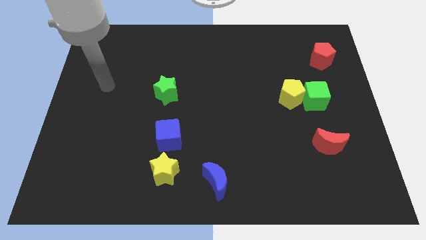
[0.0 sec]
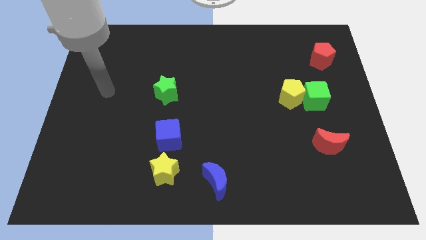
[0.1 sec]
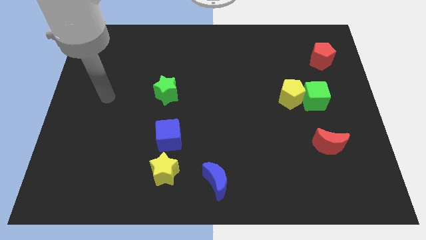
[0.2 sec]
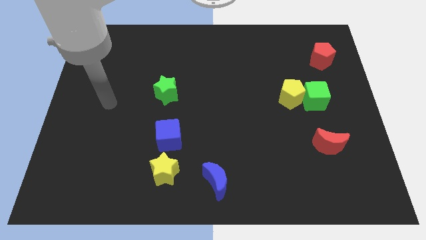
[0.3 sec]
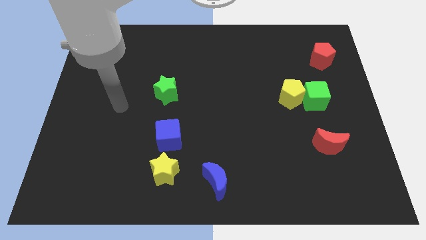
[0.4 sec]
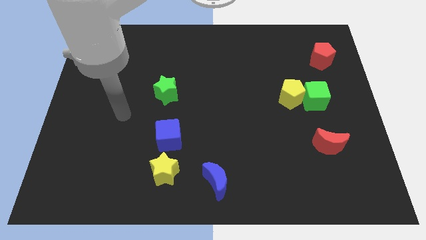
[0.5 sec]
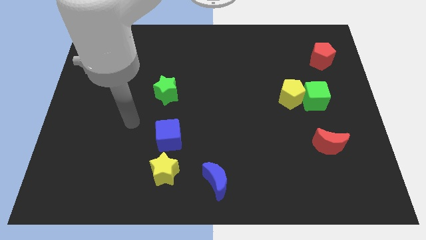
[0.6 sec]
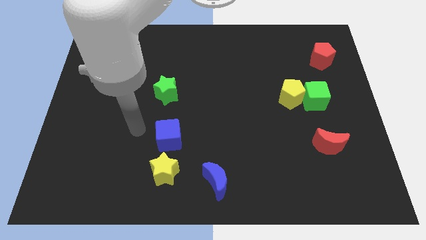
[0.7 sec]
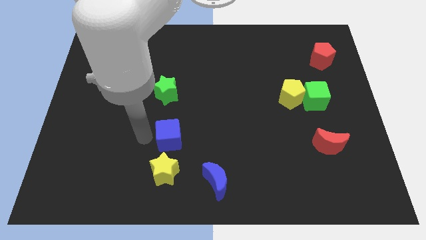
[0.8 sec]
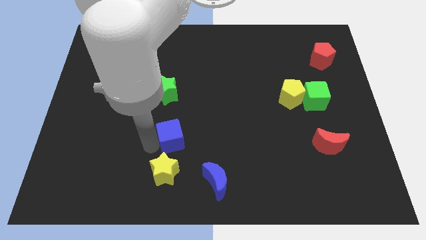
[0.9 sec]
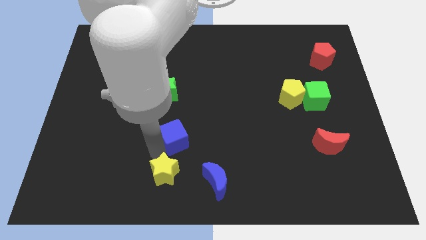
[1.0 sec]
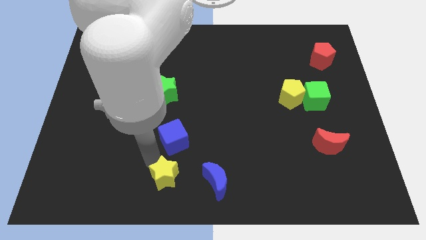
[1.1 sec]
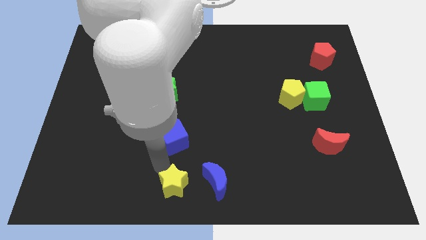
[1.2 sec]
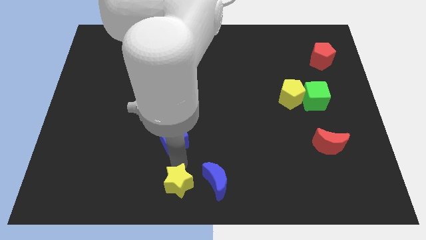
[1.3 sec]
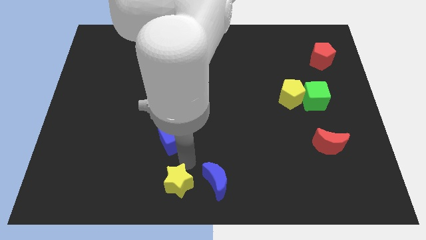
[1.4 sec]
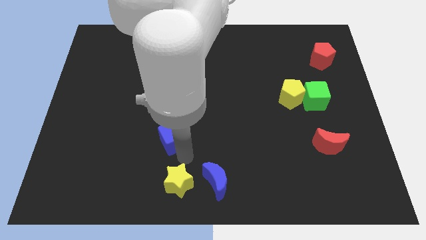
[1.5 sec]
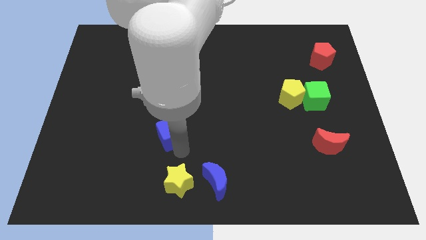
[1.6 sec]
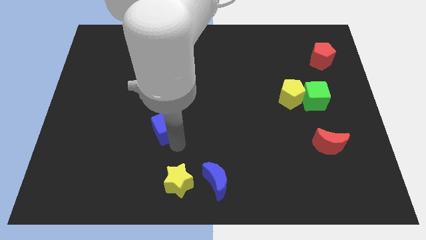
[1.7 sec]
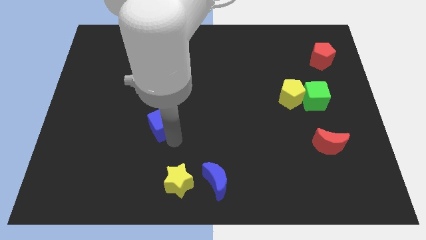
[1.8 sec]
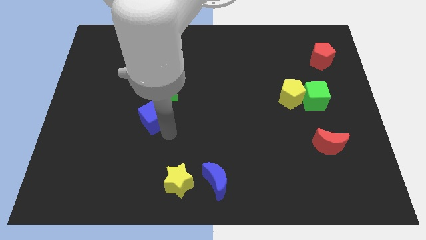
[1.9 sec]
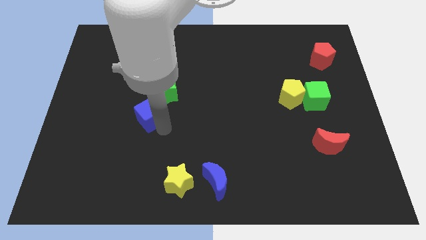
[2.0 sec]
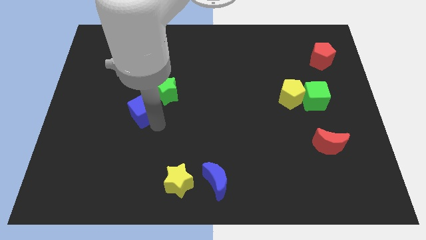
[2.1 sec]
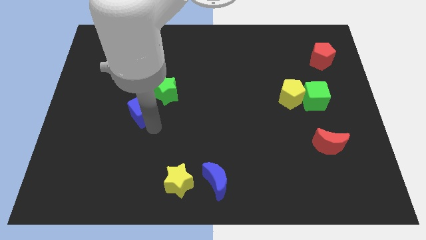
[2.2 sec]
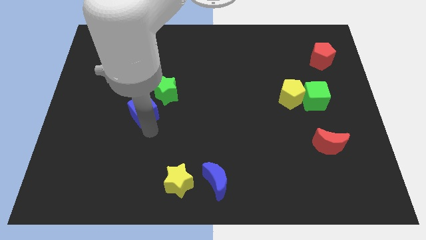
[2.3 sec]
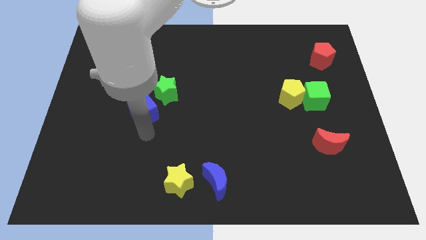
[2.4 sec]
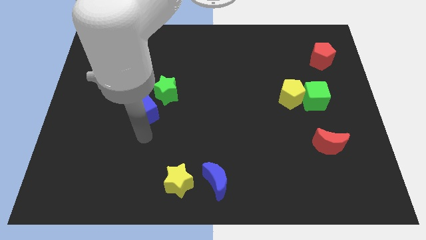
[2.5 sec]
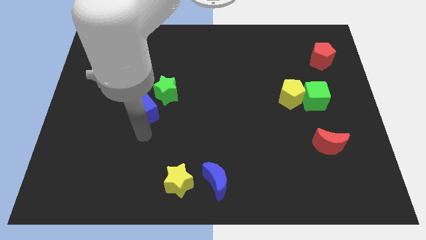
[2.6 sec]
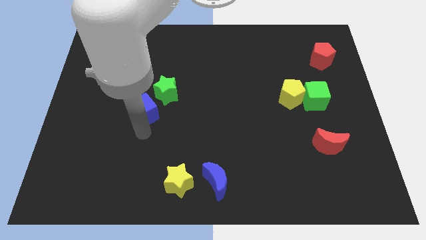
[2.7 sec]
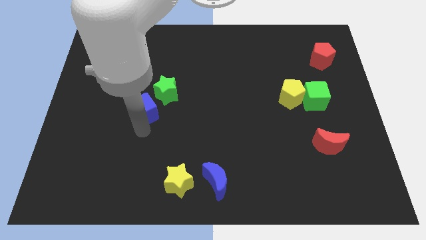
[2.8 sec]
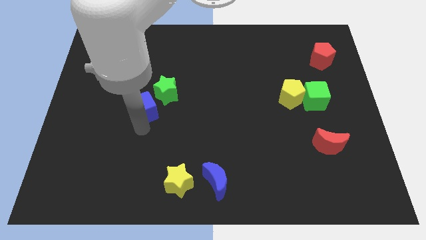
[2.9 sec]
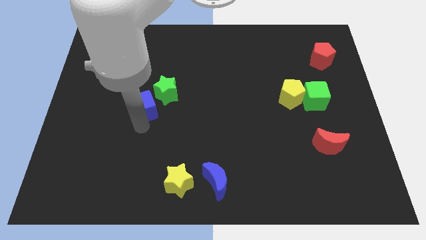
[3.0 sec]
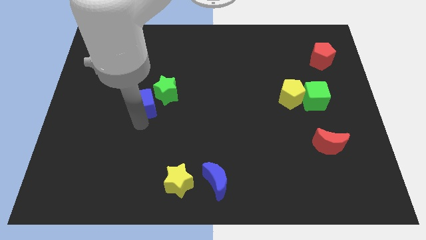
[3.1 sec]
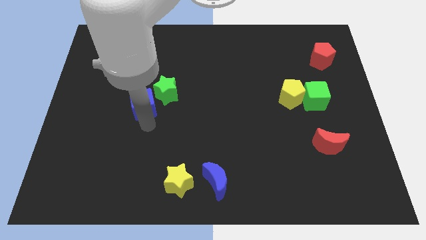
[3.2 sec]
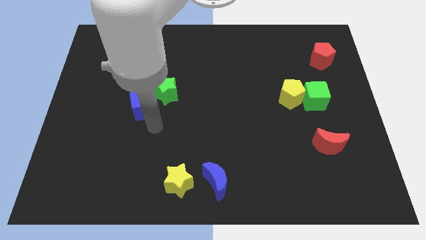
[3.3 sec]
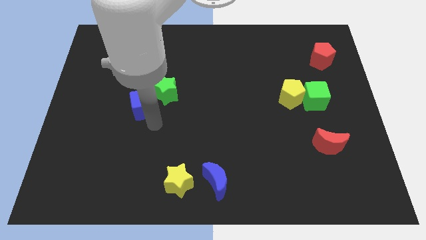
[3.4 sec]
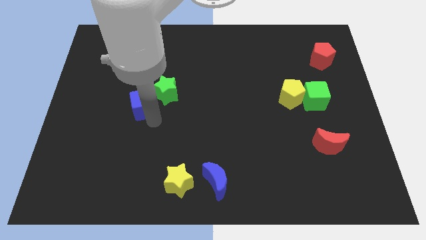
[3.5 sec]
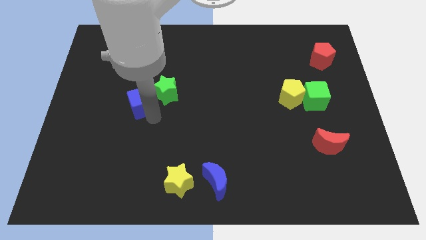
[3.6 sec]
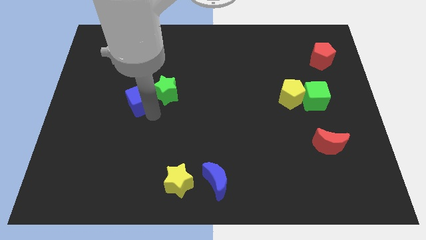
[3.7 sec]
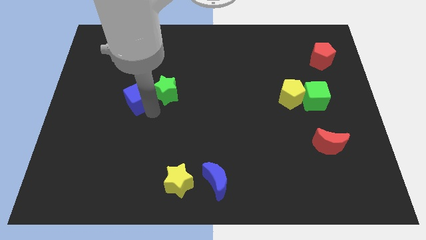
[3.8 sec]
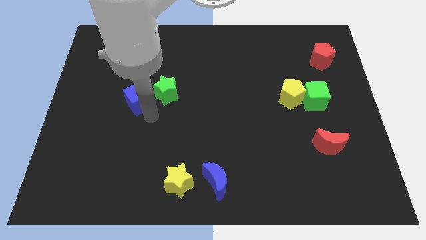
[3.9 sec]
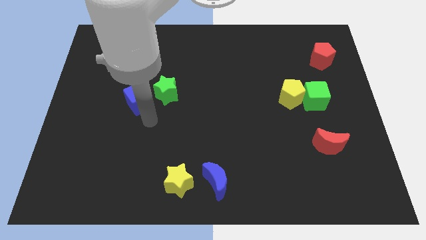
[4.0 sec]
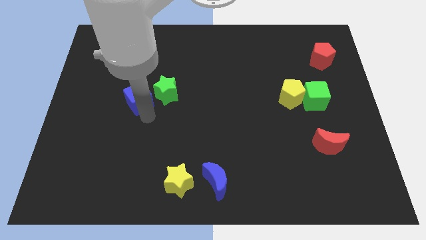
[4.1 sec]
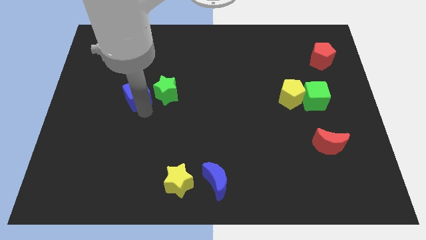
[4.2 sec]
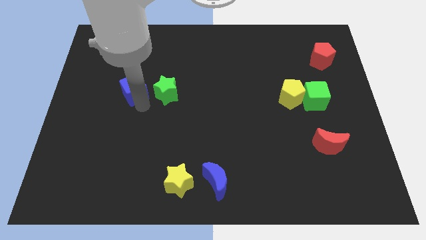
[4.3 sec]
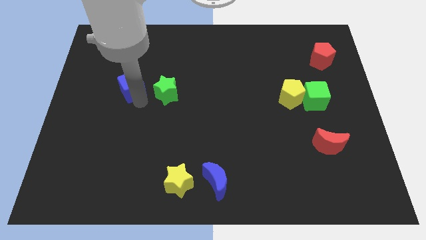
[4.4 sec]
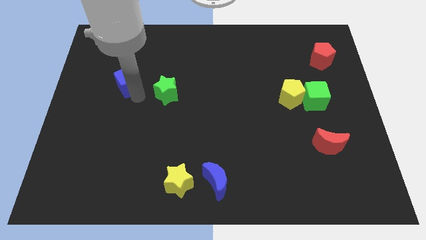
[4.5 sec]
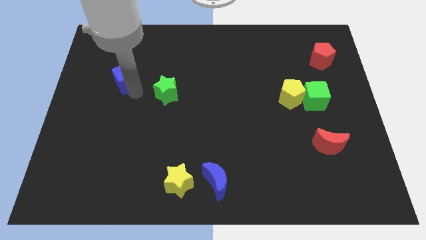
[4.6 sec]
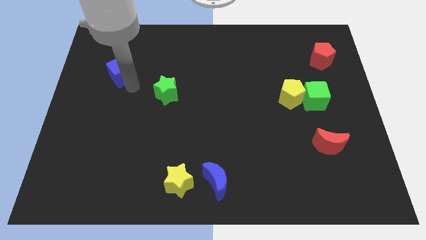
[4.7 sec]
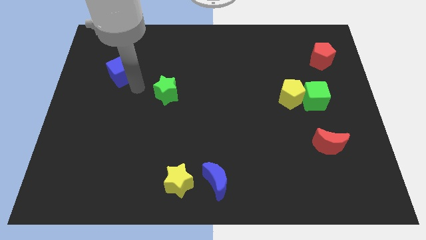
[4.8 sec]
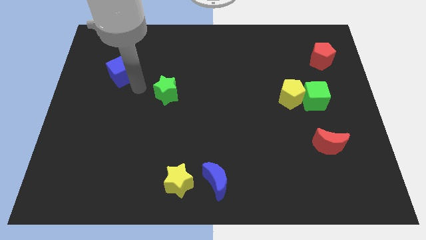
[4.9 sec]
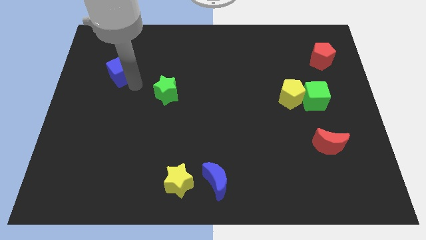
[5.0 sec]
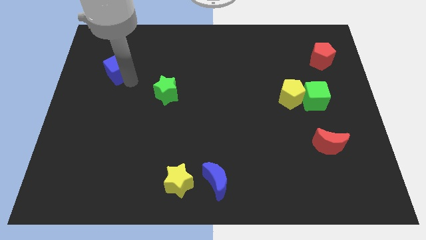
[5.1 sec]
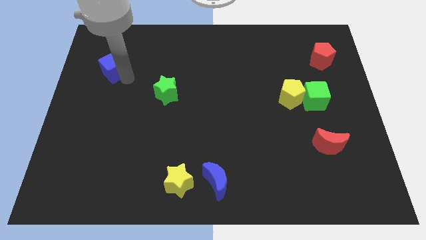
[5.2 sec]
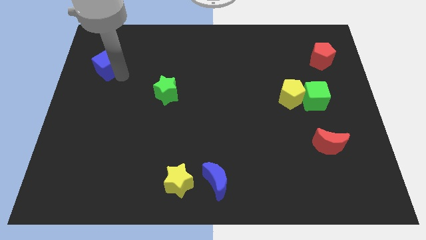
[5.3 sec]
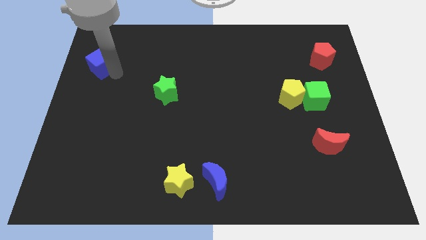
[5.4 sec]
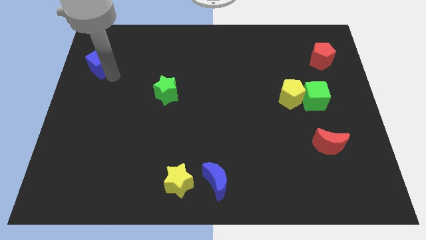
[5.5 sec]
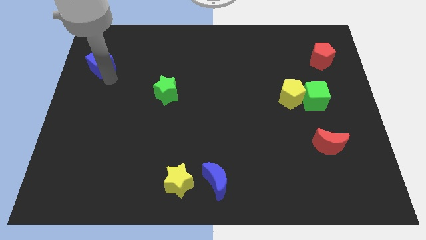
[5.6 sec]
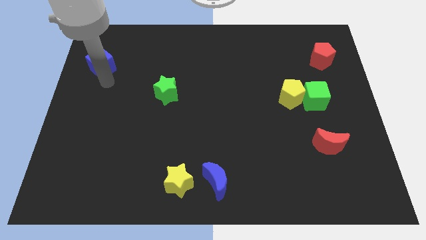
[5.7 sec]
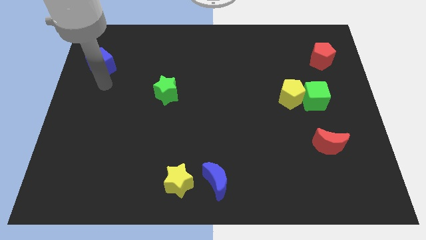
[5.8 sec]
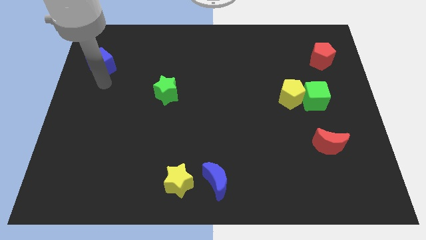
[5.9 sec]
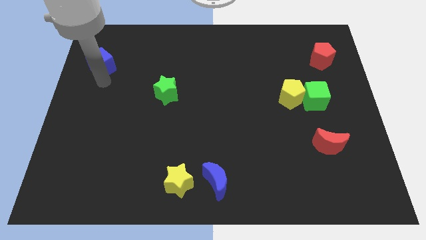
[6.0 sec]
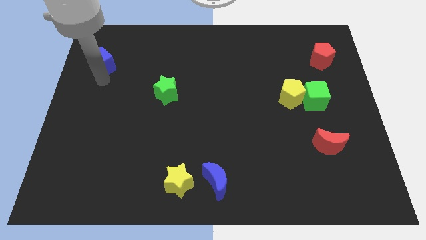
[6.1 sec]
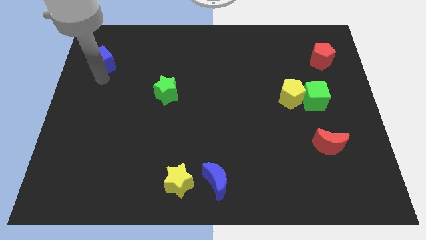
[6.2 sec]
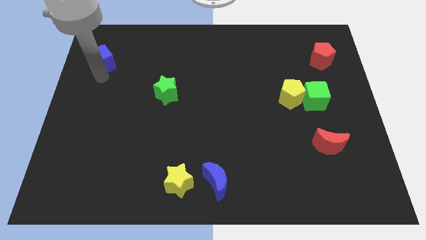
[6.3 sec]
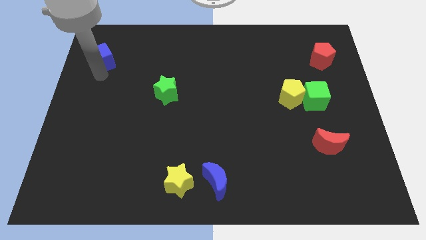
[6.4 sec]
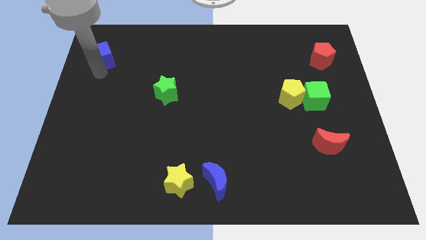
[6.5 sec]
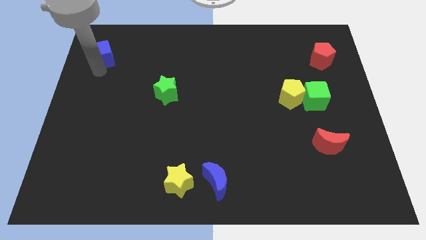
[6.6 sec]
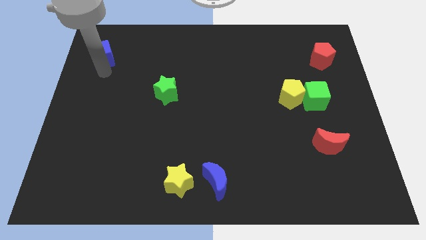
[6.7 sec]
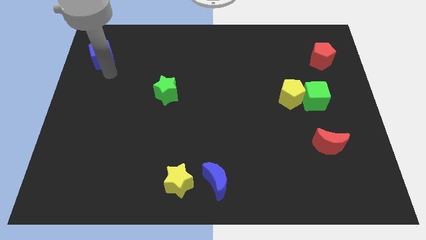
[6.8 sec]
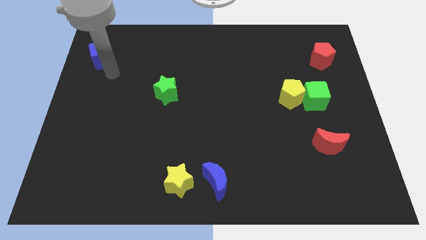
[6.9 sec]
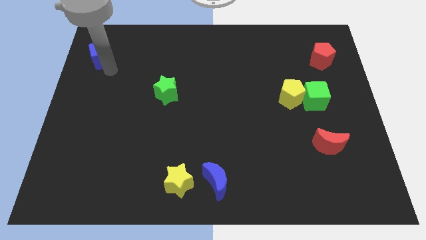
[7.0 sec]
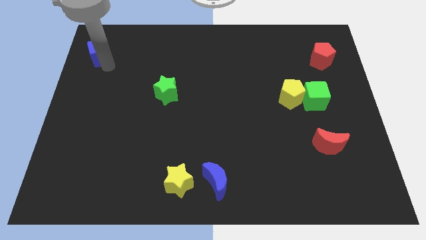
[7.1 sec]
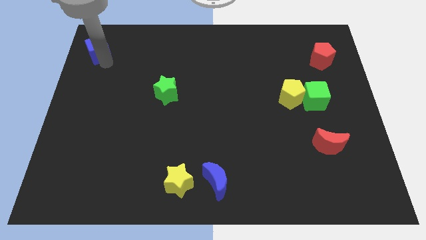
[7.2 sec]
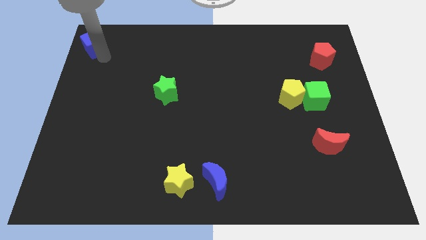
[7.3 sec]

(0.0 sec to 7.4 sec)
put the blue cube to the upper left corner

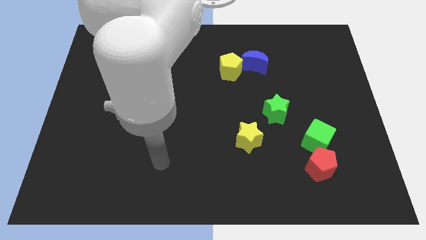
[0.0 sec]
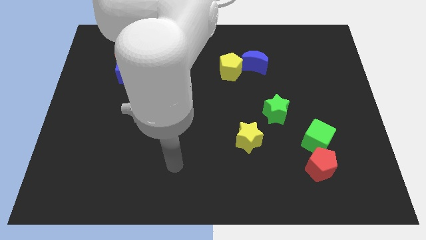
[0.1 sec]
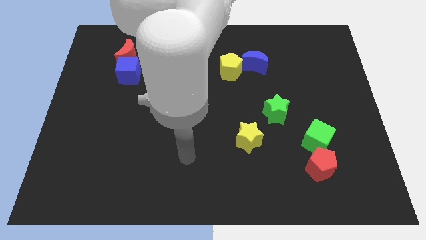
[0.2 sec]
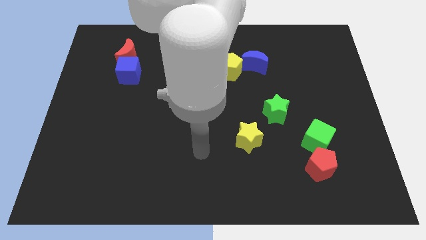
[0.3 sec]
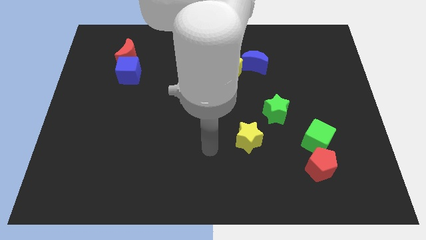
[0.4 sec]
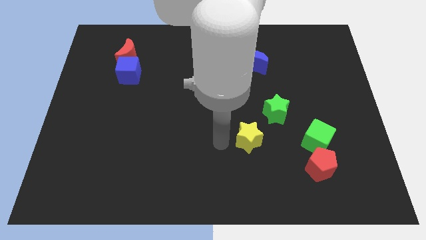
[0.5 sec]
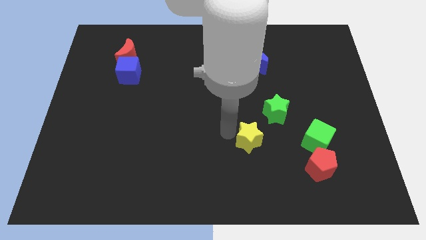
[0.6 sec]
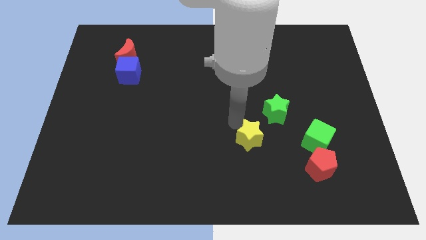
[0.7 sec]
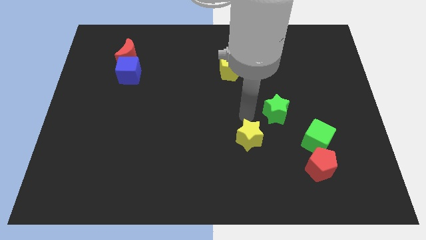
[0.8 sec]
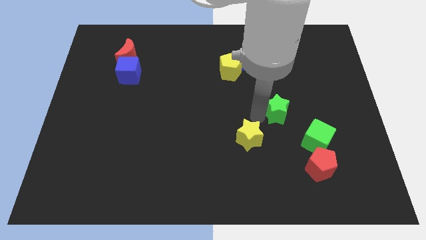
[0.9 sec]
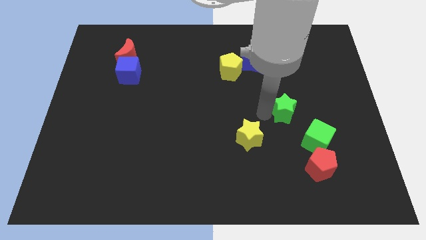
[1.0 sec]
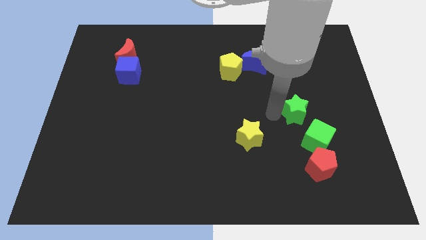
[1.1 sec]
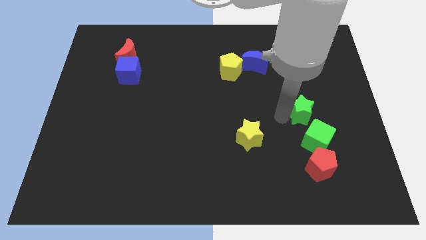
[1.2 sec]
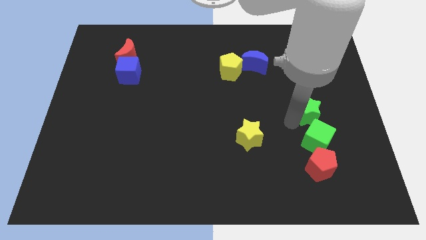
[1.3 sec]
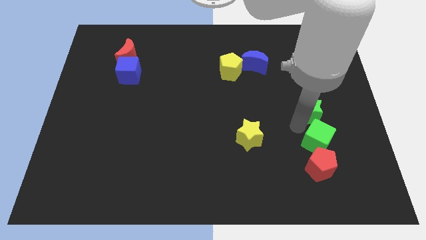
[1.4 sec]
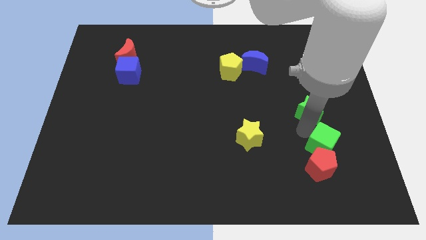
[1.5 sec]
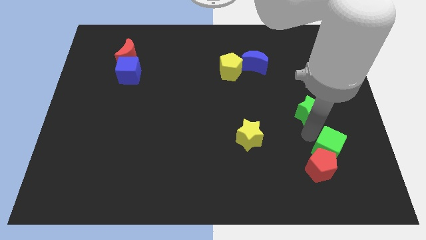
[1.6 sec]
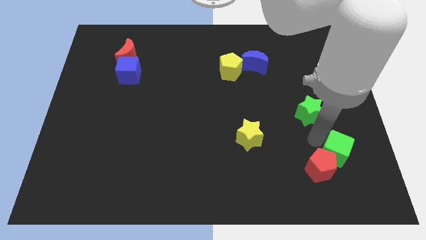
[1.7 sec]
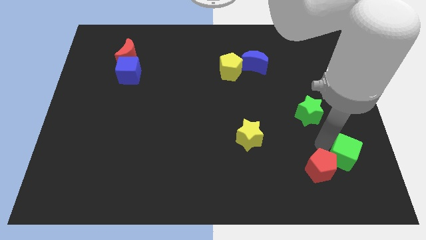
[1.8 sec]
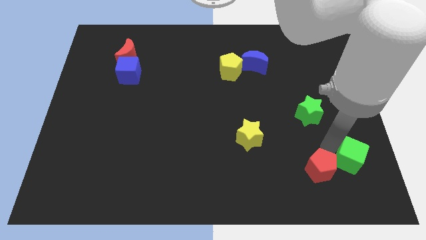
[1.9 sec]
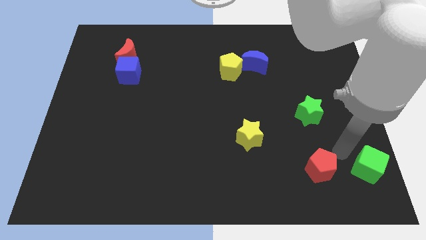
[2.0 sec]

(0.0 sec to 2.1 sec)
move the green cube to the bottom right corner
